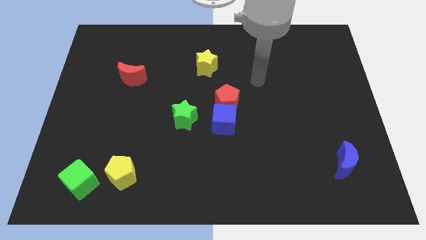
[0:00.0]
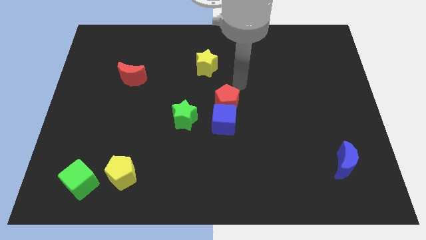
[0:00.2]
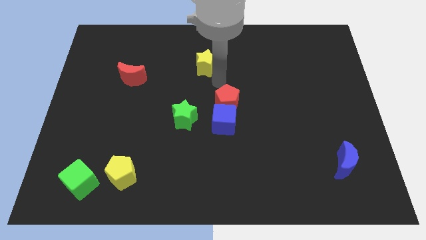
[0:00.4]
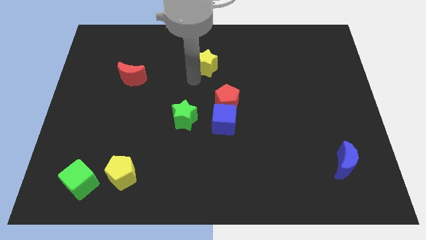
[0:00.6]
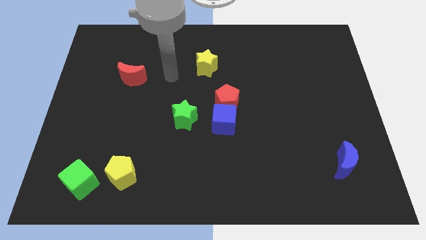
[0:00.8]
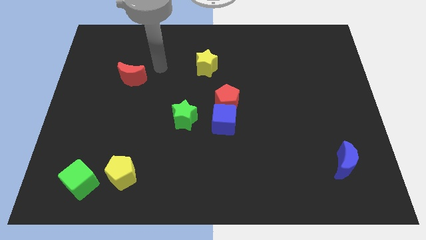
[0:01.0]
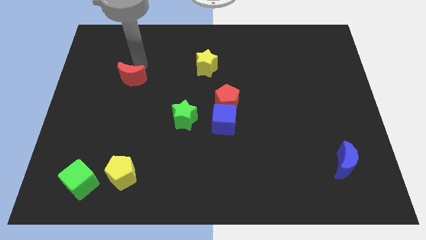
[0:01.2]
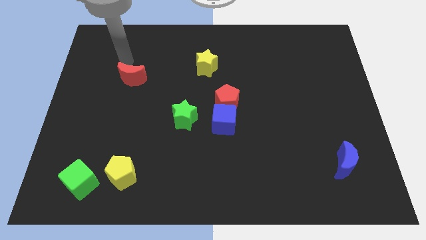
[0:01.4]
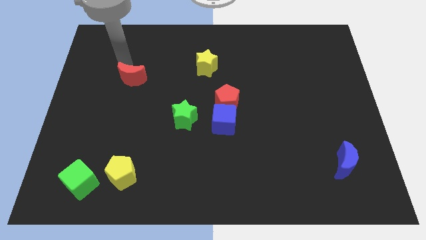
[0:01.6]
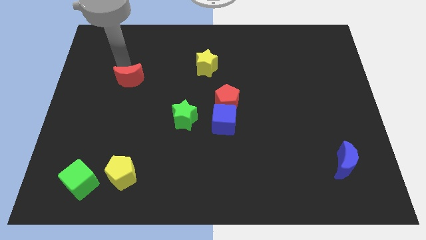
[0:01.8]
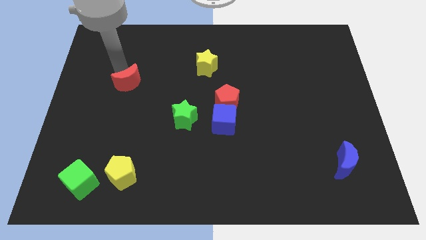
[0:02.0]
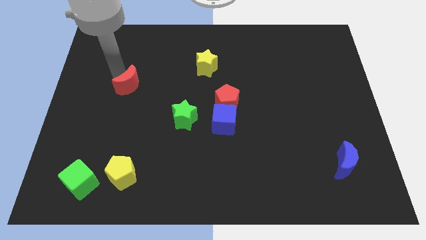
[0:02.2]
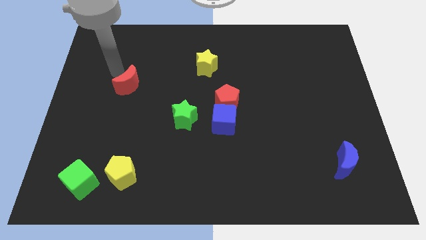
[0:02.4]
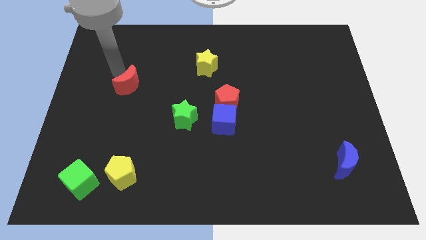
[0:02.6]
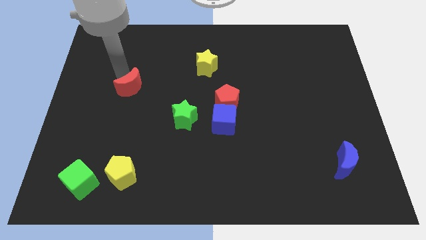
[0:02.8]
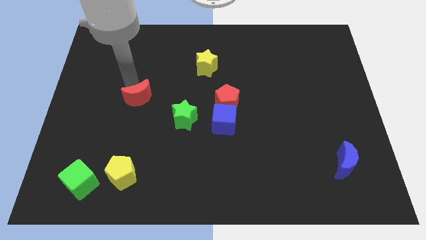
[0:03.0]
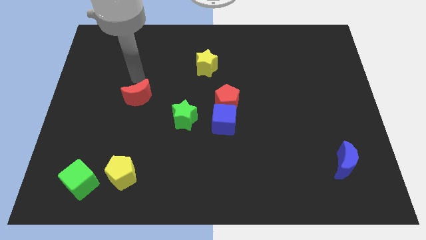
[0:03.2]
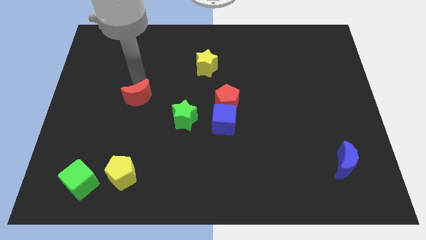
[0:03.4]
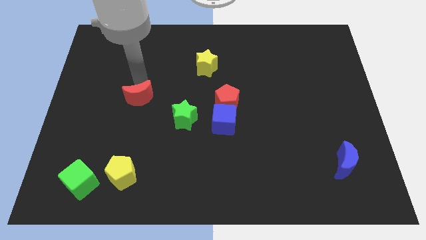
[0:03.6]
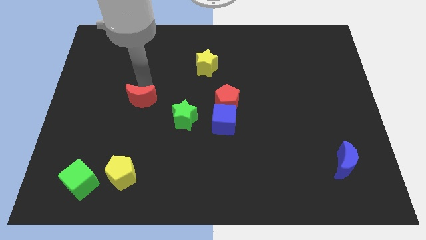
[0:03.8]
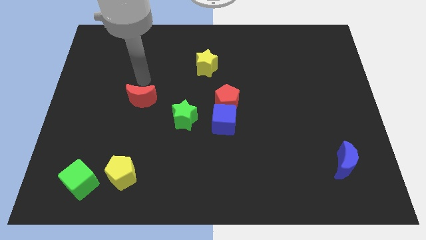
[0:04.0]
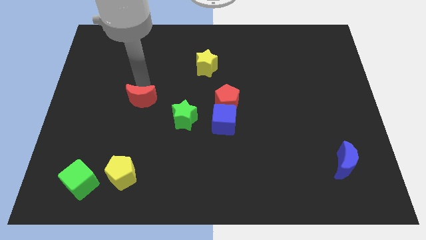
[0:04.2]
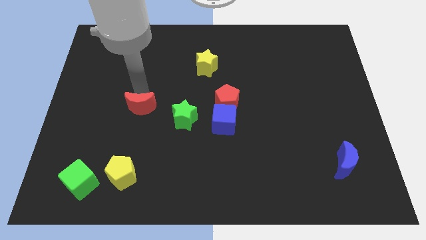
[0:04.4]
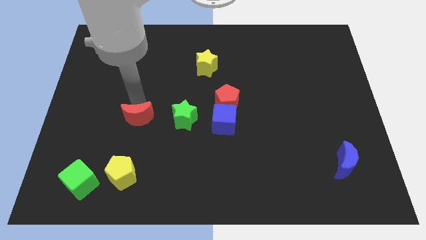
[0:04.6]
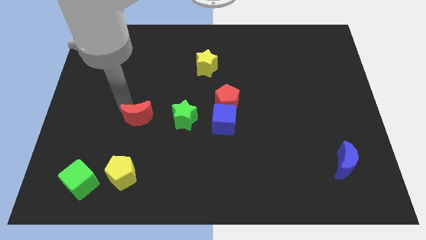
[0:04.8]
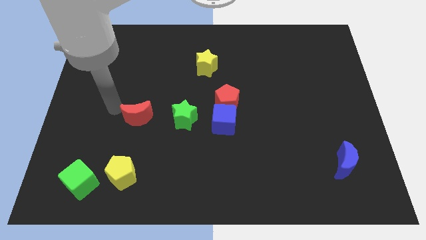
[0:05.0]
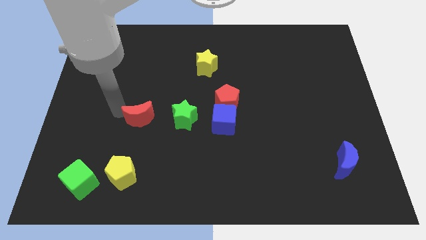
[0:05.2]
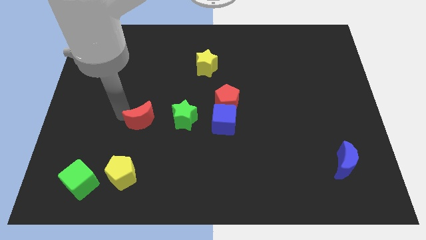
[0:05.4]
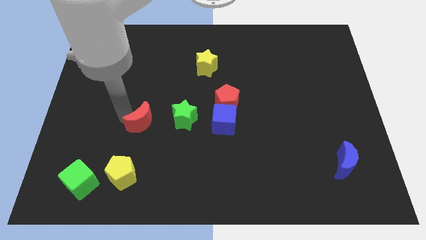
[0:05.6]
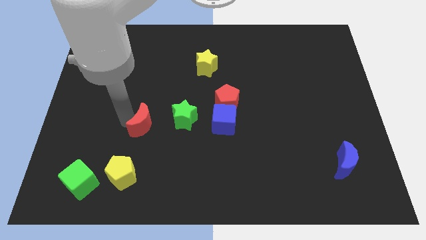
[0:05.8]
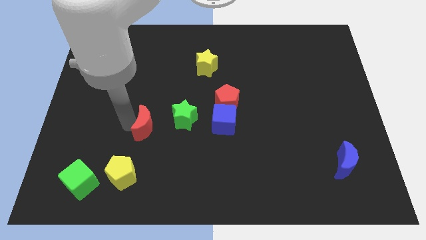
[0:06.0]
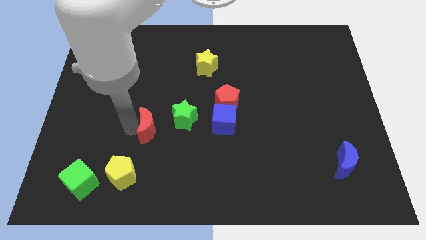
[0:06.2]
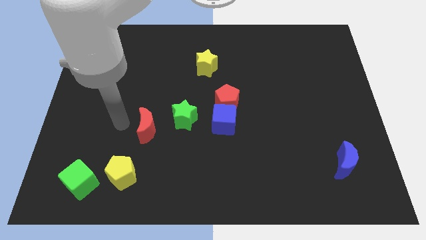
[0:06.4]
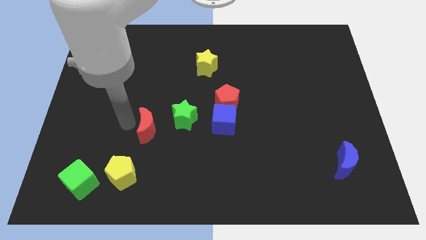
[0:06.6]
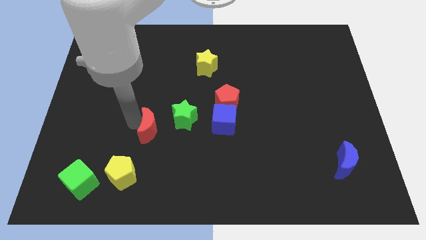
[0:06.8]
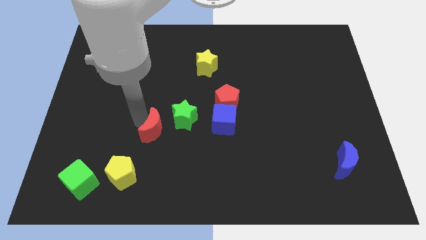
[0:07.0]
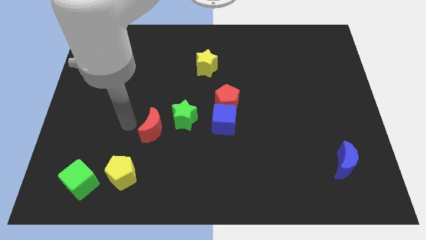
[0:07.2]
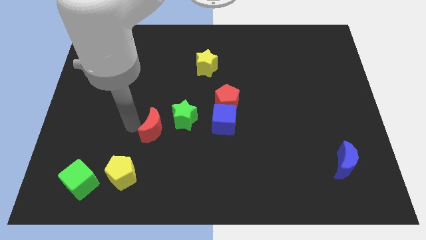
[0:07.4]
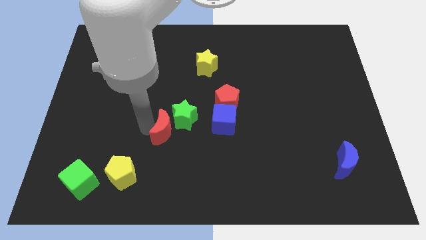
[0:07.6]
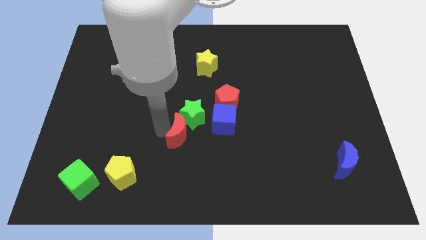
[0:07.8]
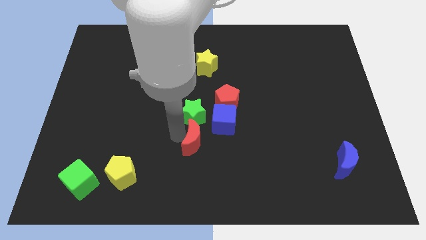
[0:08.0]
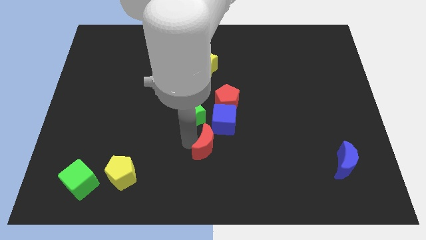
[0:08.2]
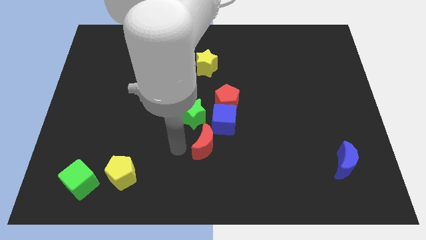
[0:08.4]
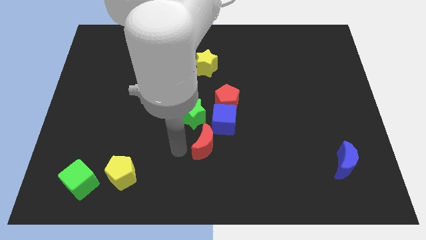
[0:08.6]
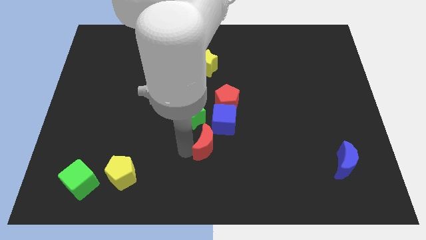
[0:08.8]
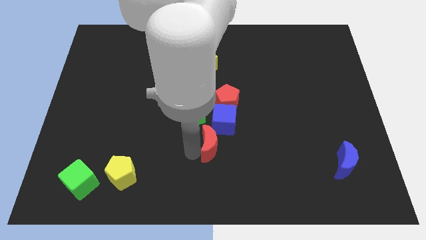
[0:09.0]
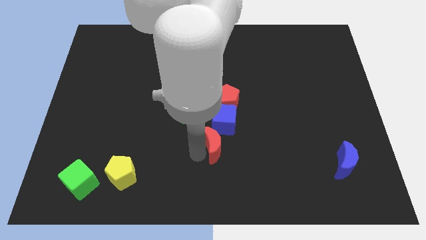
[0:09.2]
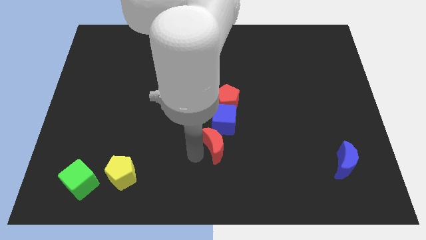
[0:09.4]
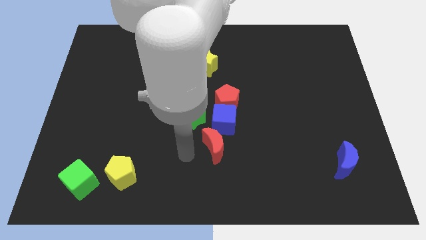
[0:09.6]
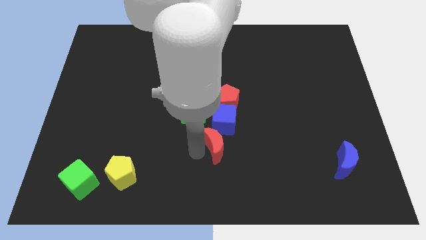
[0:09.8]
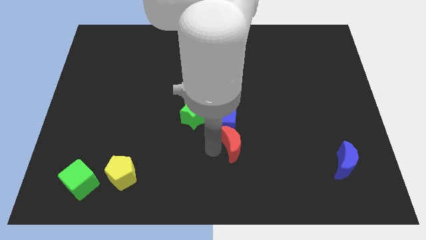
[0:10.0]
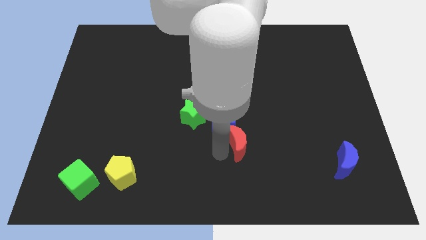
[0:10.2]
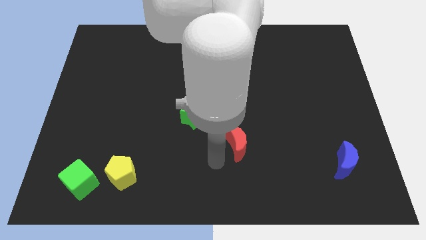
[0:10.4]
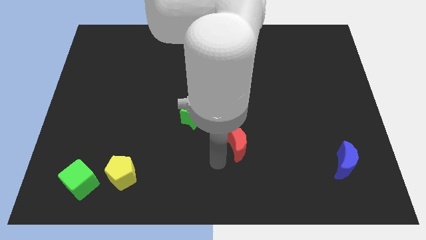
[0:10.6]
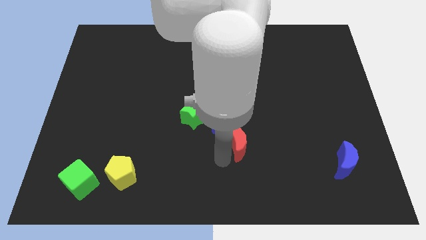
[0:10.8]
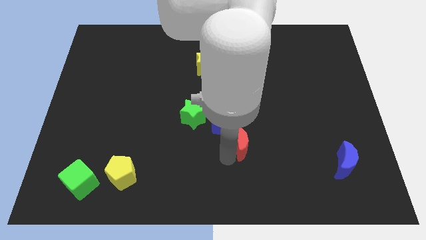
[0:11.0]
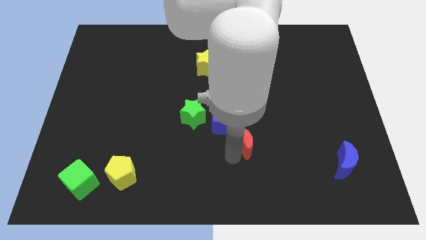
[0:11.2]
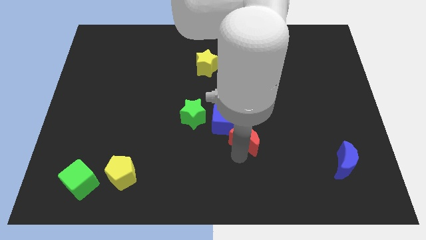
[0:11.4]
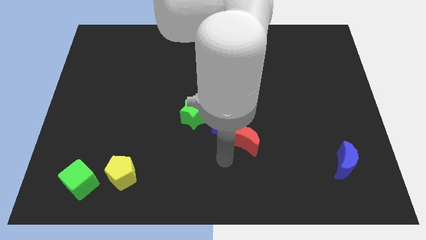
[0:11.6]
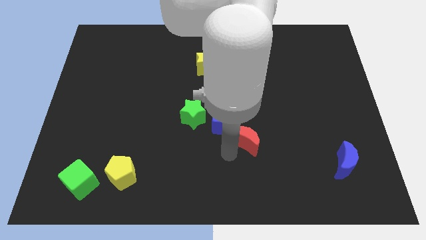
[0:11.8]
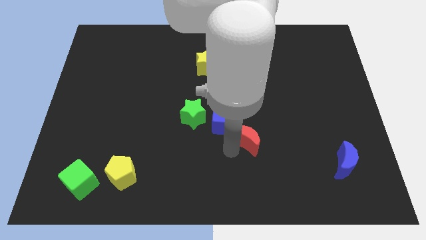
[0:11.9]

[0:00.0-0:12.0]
move the red moon to the right side of the blue cube

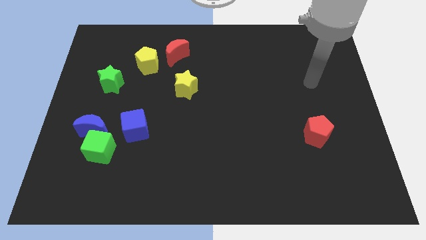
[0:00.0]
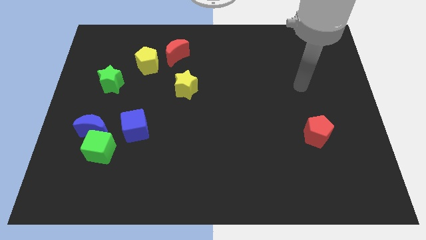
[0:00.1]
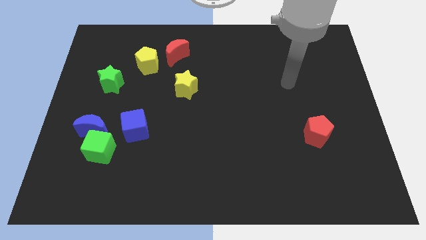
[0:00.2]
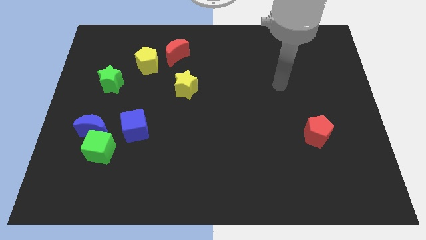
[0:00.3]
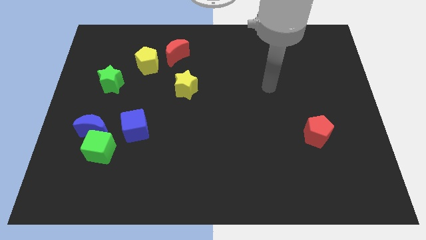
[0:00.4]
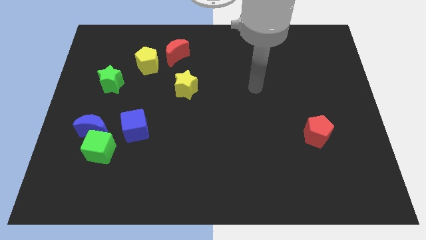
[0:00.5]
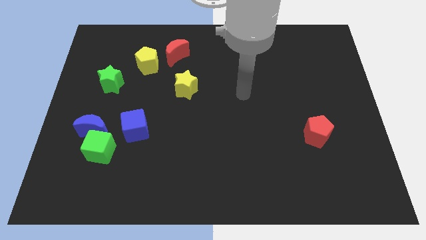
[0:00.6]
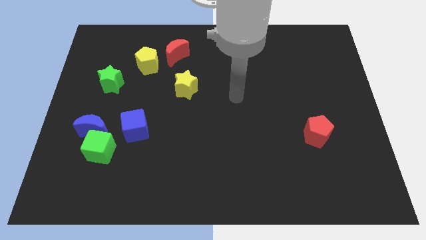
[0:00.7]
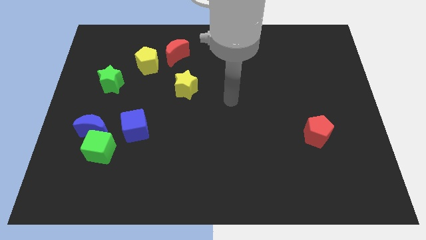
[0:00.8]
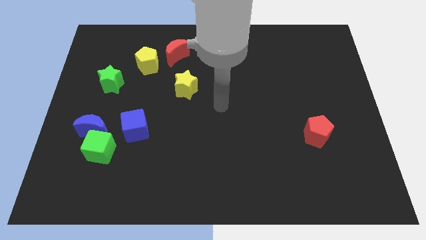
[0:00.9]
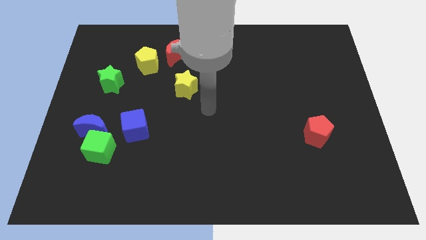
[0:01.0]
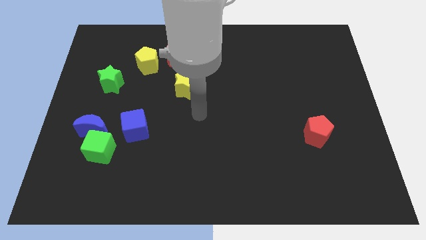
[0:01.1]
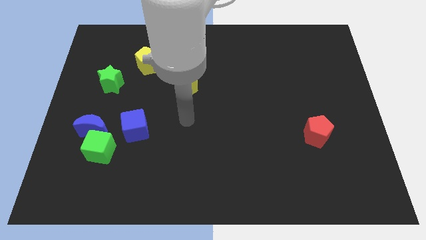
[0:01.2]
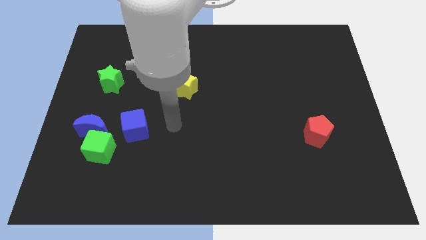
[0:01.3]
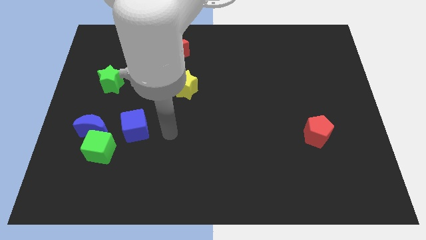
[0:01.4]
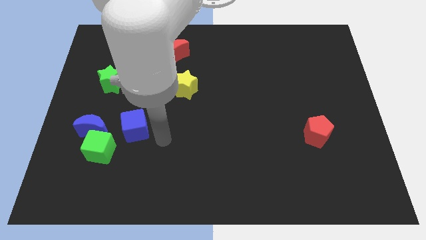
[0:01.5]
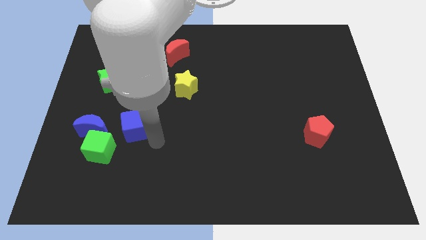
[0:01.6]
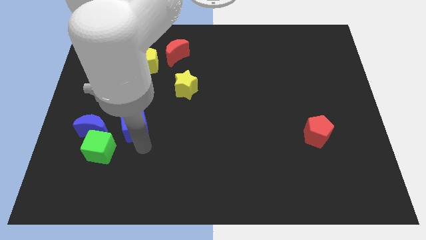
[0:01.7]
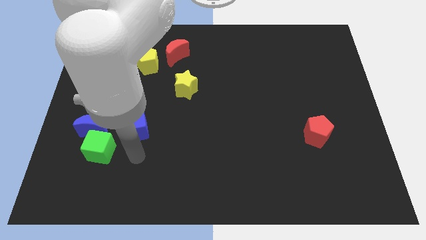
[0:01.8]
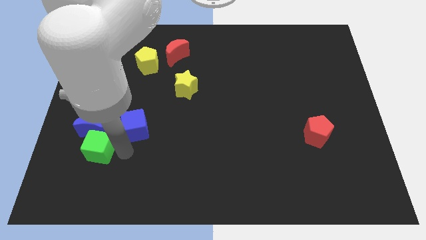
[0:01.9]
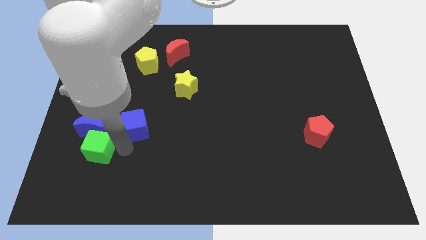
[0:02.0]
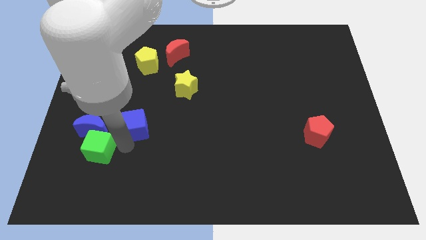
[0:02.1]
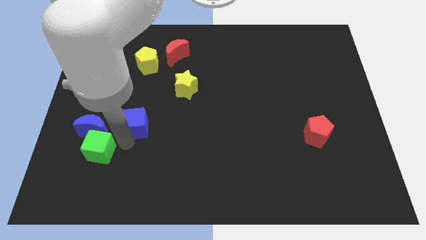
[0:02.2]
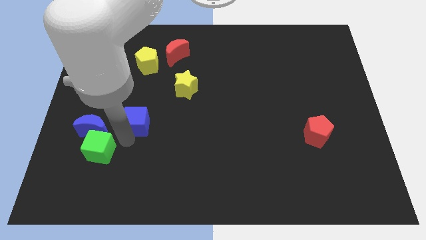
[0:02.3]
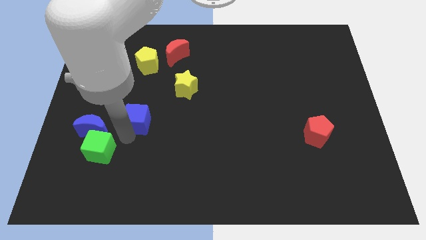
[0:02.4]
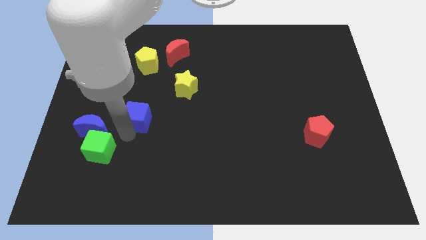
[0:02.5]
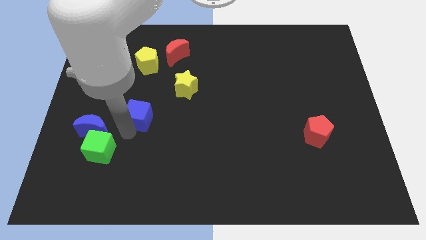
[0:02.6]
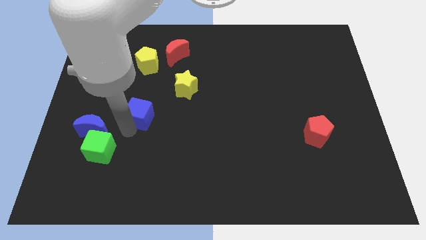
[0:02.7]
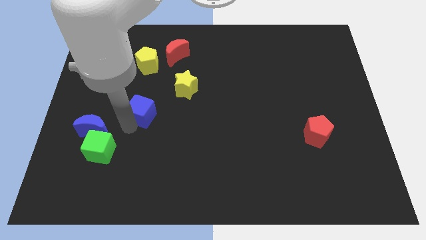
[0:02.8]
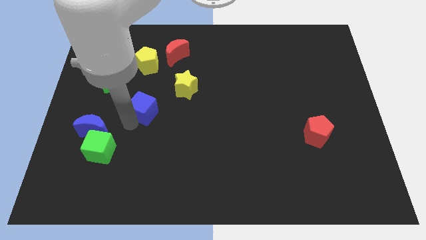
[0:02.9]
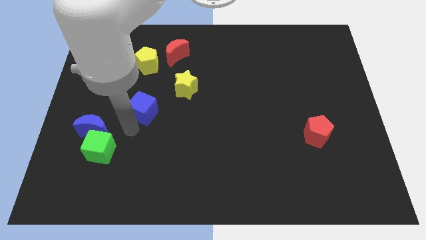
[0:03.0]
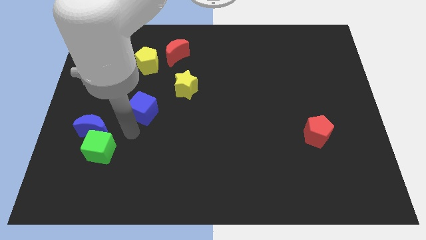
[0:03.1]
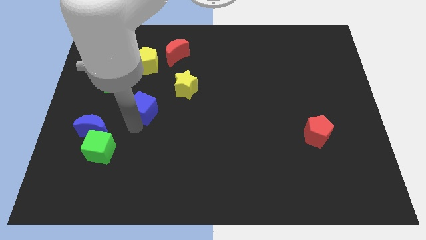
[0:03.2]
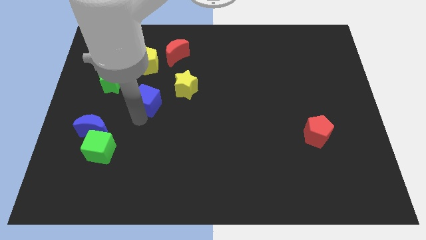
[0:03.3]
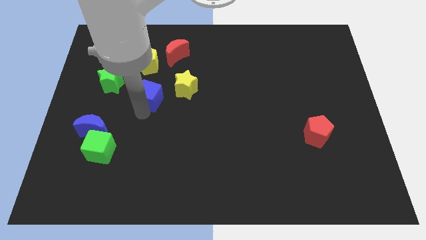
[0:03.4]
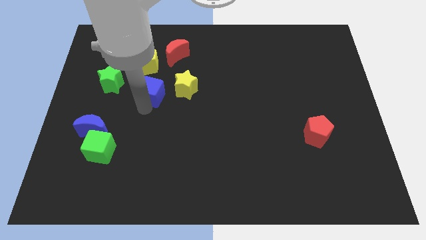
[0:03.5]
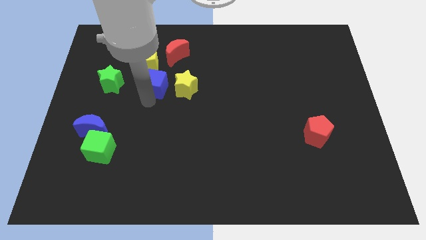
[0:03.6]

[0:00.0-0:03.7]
put the blue cube to the top left side of the yellow star
